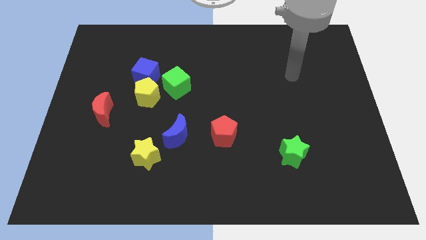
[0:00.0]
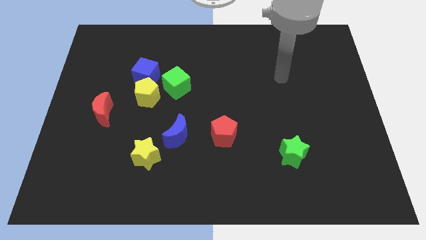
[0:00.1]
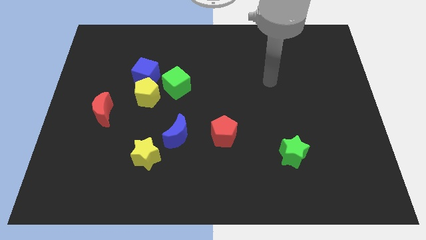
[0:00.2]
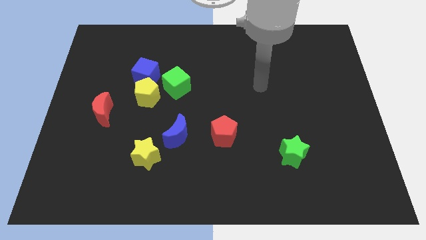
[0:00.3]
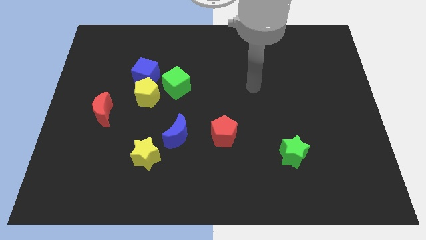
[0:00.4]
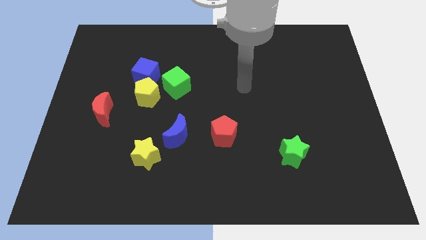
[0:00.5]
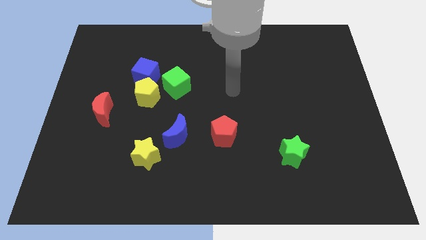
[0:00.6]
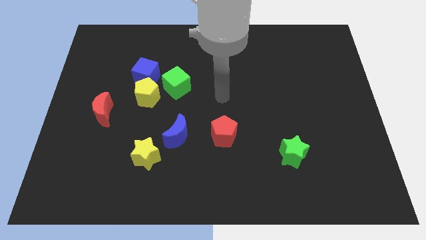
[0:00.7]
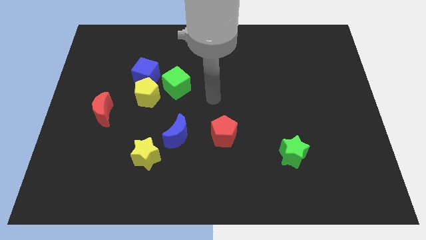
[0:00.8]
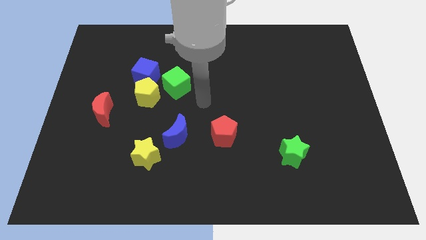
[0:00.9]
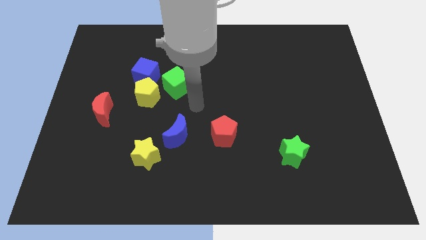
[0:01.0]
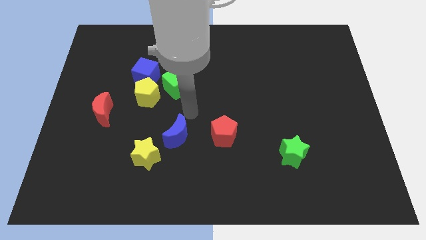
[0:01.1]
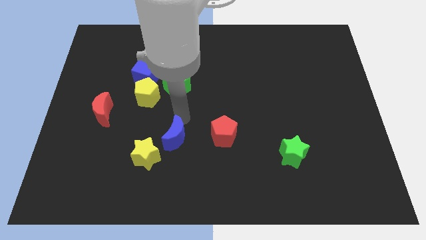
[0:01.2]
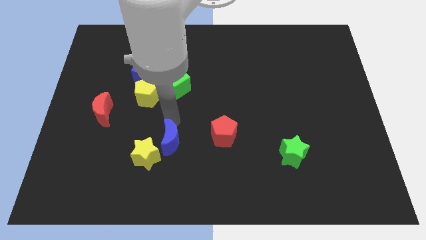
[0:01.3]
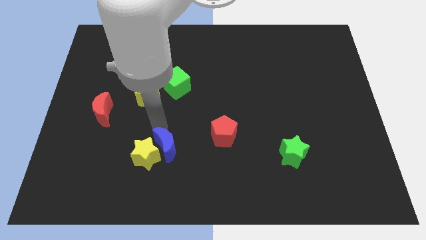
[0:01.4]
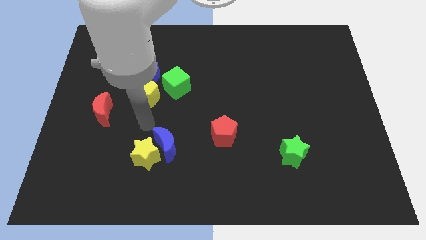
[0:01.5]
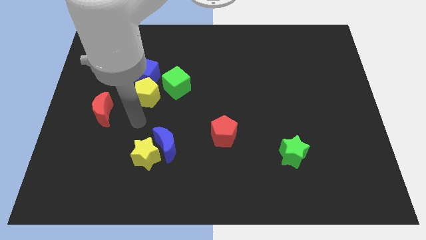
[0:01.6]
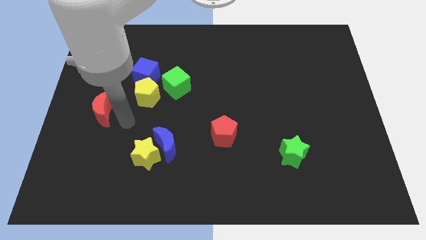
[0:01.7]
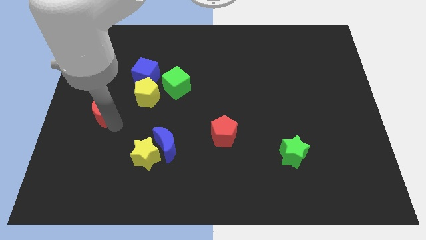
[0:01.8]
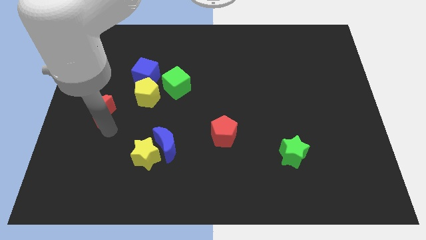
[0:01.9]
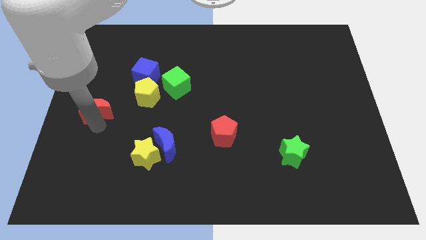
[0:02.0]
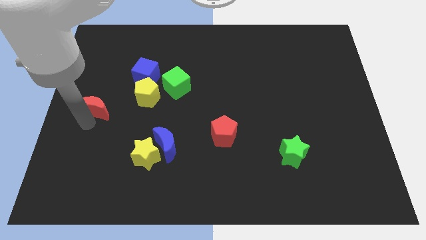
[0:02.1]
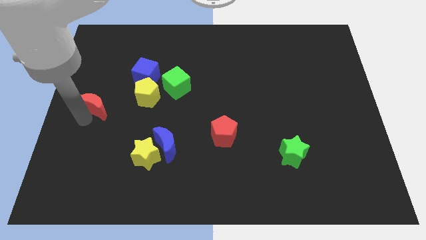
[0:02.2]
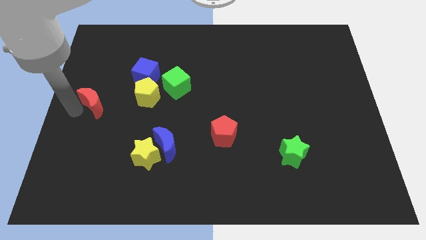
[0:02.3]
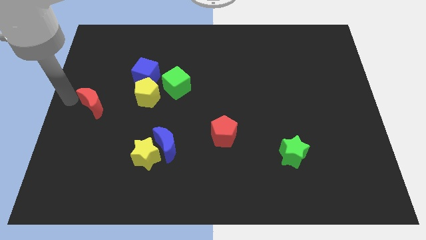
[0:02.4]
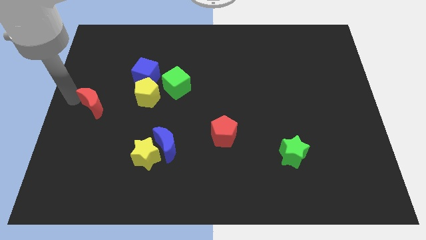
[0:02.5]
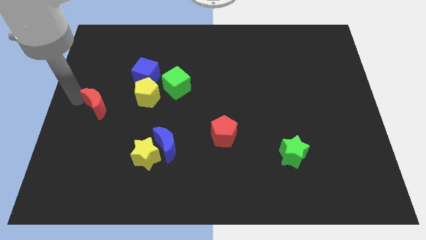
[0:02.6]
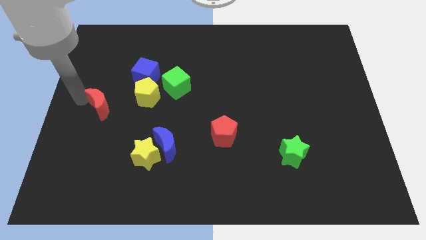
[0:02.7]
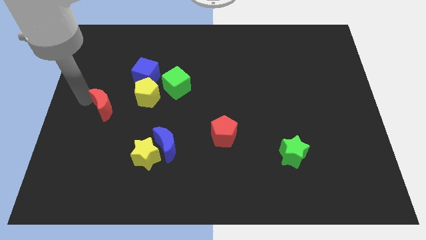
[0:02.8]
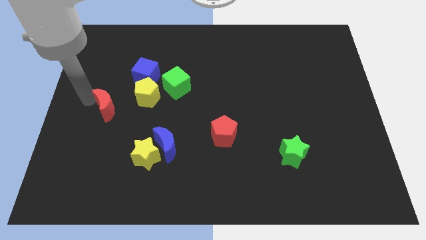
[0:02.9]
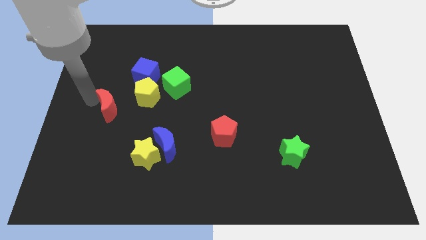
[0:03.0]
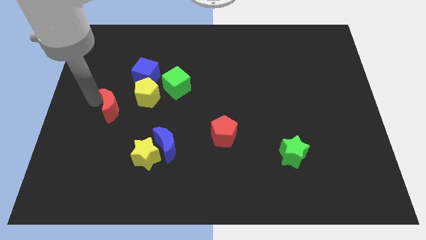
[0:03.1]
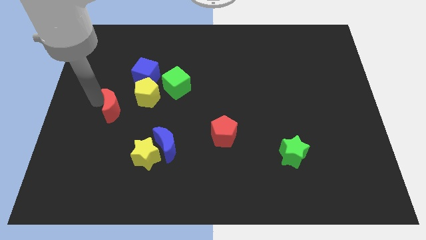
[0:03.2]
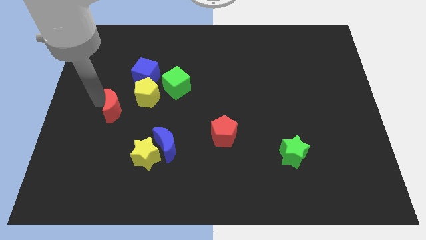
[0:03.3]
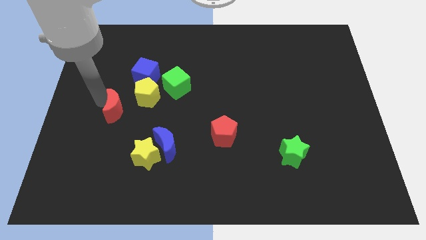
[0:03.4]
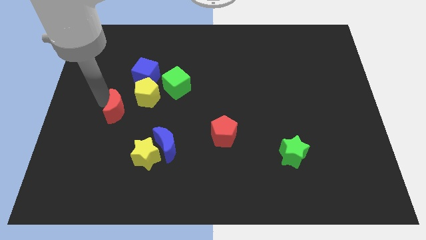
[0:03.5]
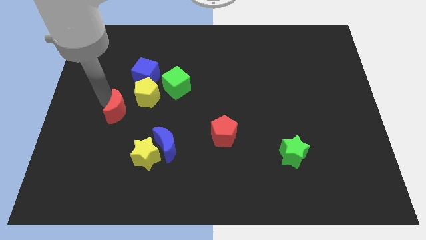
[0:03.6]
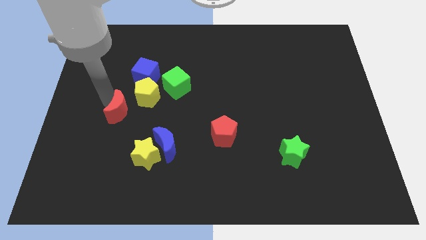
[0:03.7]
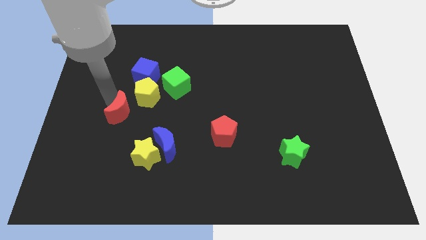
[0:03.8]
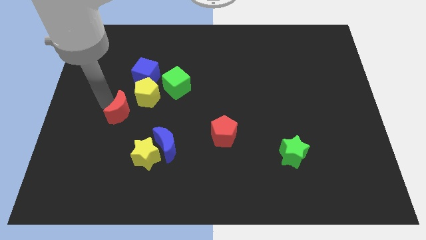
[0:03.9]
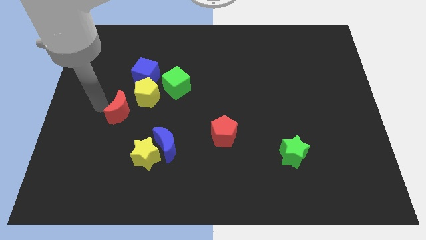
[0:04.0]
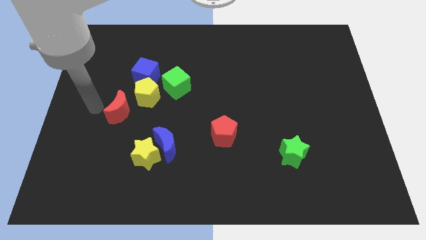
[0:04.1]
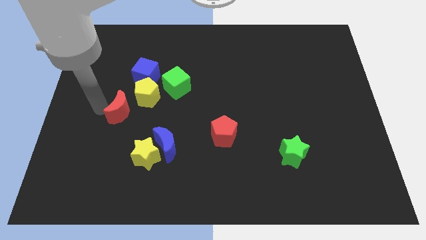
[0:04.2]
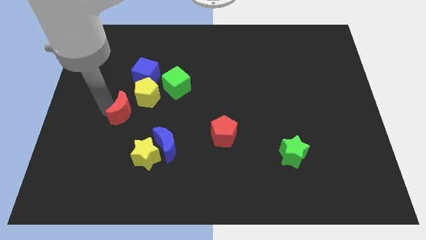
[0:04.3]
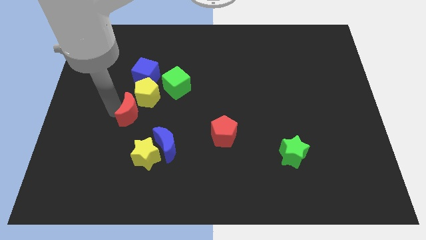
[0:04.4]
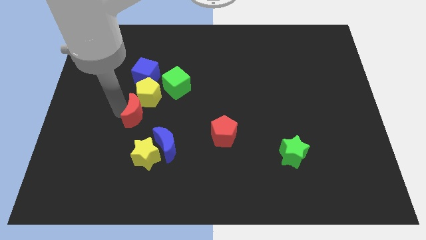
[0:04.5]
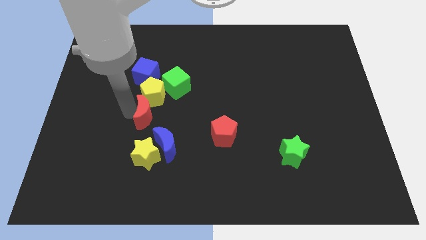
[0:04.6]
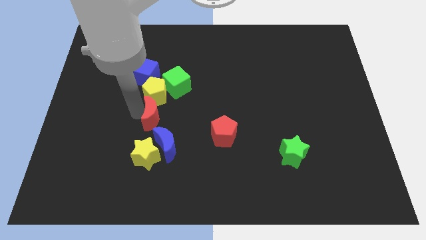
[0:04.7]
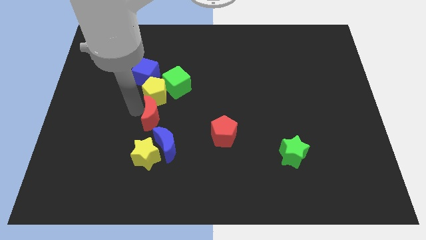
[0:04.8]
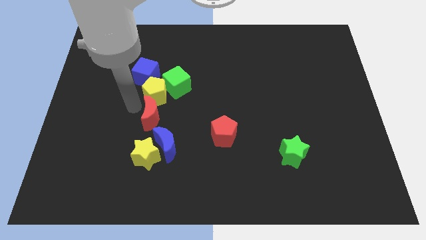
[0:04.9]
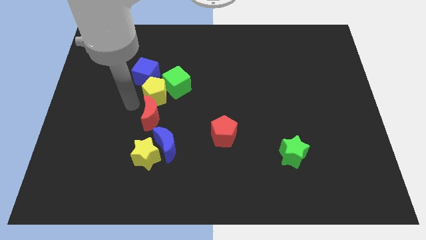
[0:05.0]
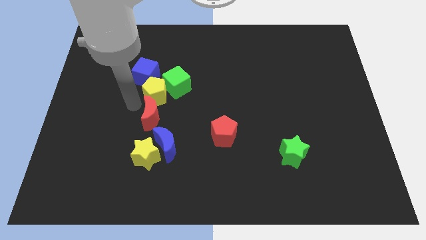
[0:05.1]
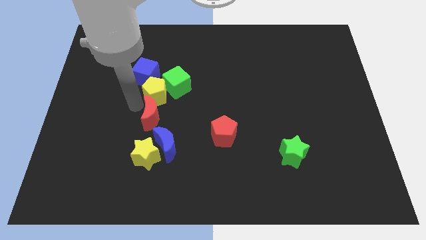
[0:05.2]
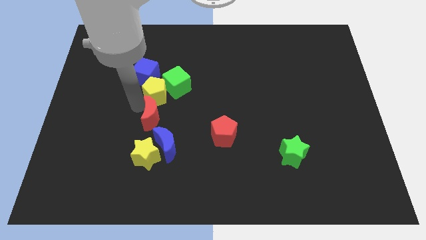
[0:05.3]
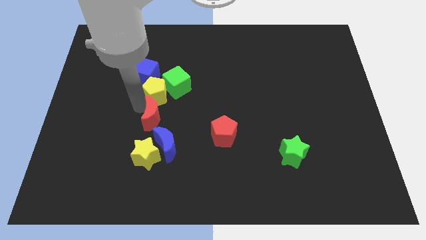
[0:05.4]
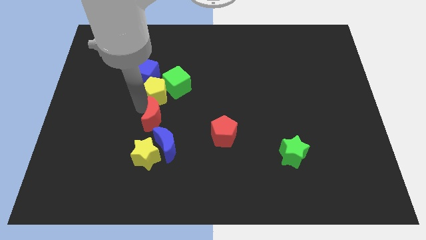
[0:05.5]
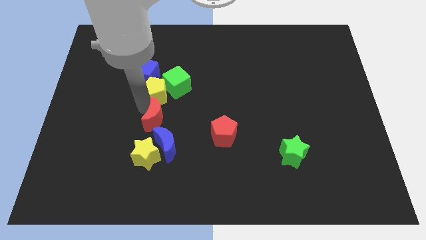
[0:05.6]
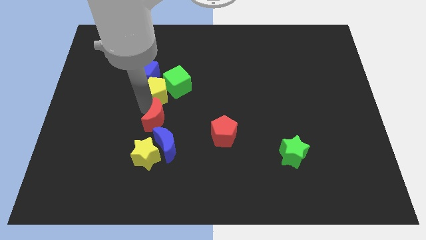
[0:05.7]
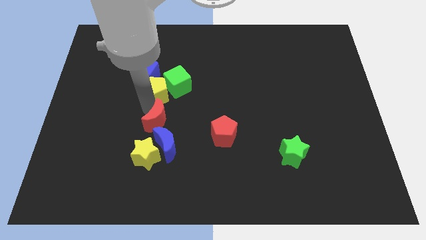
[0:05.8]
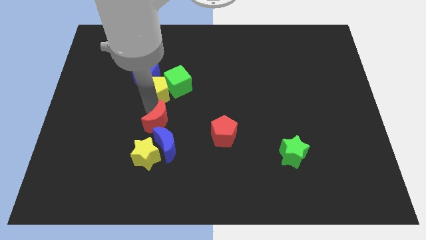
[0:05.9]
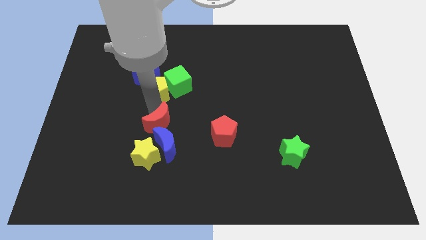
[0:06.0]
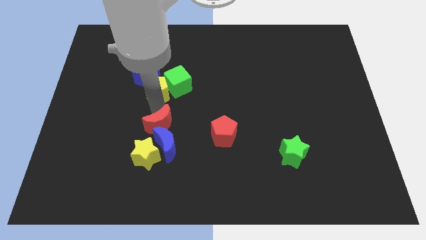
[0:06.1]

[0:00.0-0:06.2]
slide the red moon towards the blue moon
